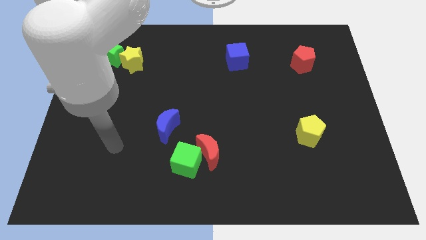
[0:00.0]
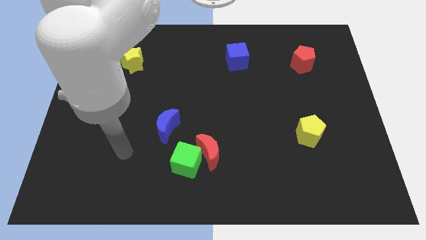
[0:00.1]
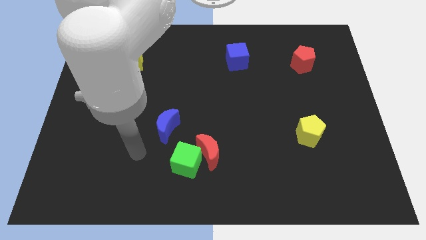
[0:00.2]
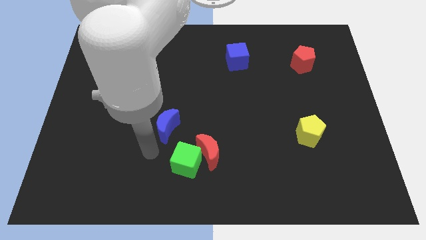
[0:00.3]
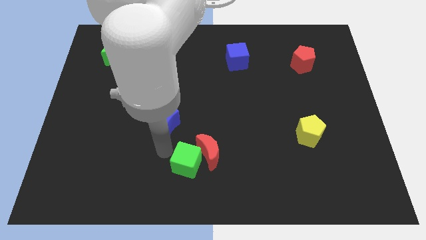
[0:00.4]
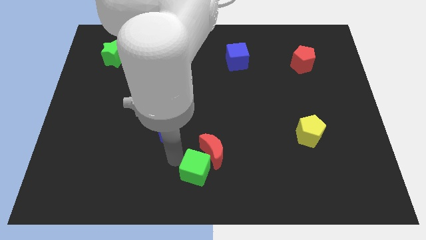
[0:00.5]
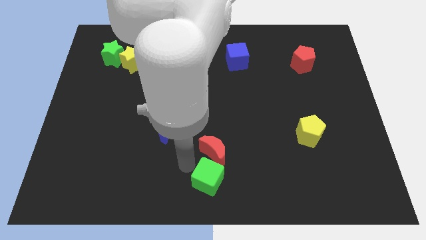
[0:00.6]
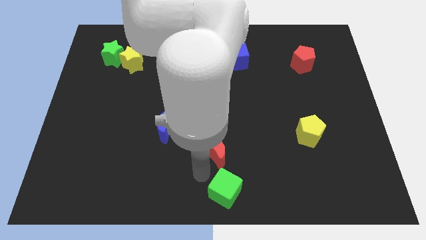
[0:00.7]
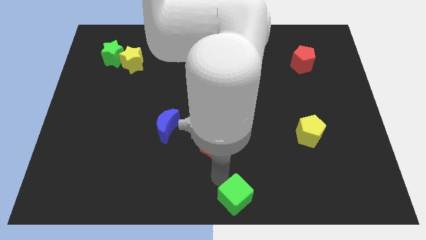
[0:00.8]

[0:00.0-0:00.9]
move the red moon away from the green cube

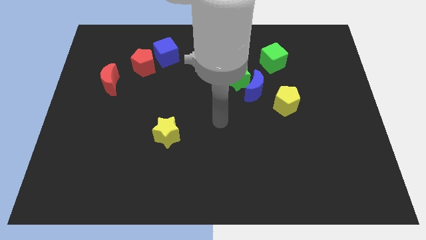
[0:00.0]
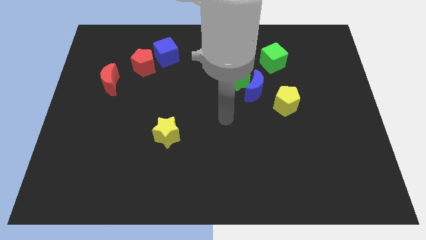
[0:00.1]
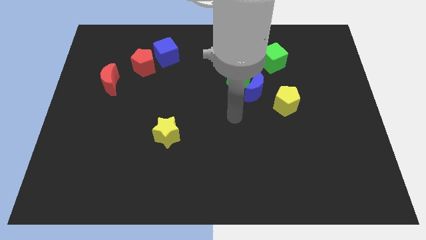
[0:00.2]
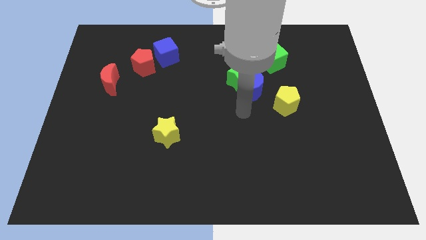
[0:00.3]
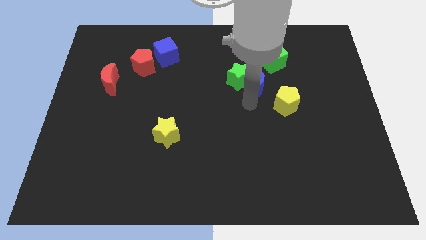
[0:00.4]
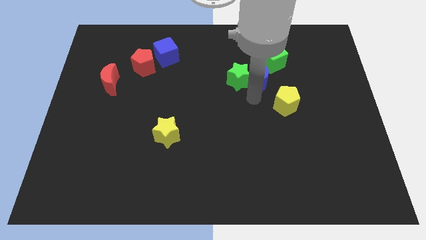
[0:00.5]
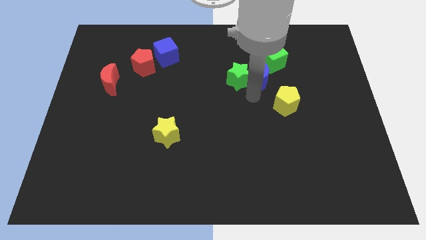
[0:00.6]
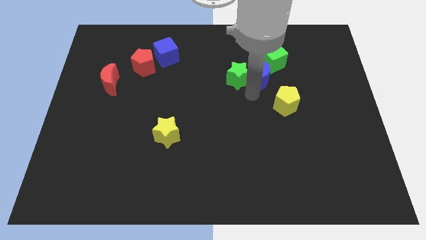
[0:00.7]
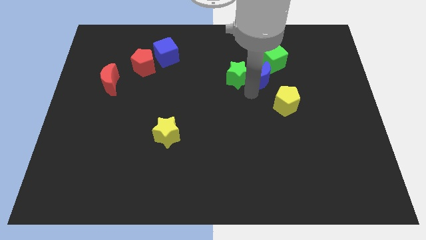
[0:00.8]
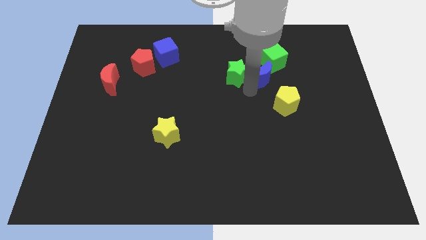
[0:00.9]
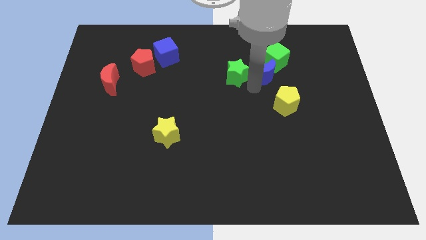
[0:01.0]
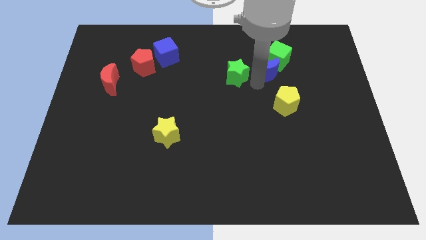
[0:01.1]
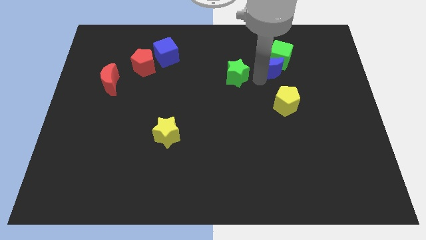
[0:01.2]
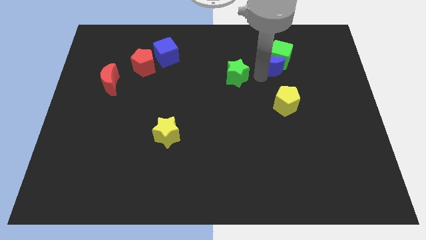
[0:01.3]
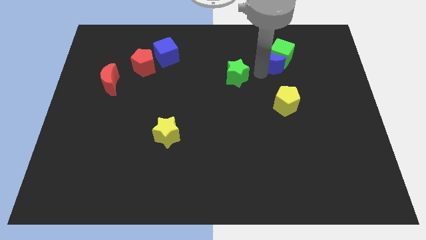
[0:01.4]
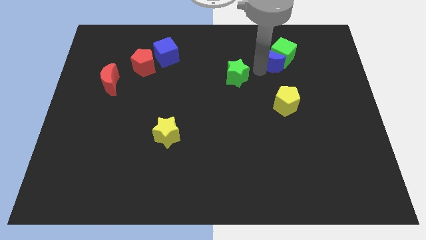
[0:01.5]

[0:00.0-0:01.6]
pull the green star apart from the blue moon

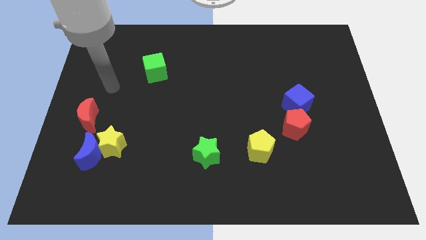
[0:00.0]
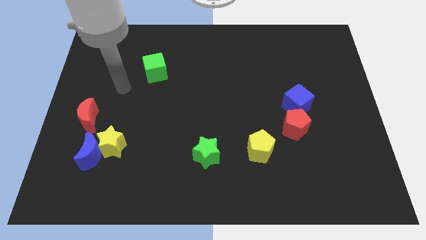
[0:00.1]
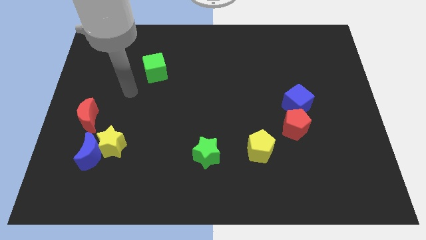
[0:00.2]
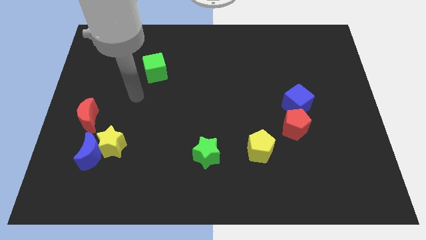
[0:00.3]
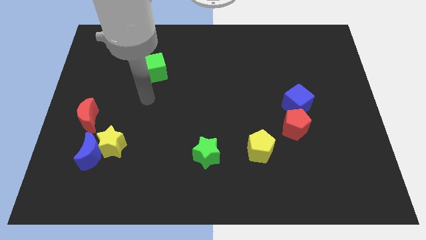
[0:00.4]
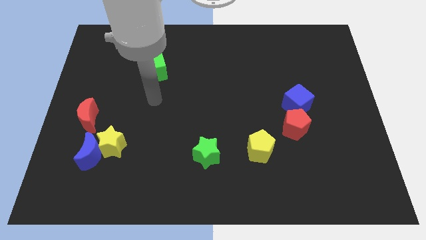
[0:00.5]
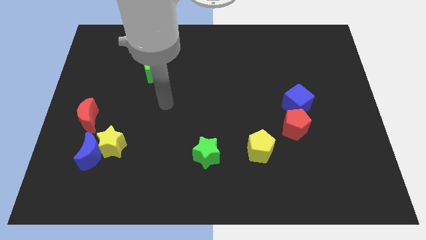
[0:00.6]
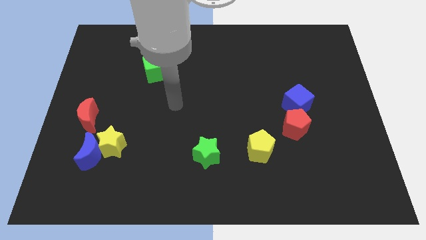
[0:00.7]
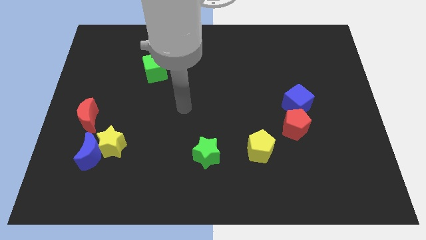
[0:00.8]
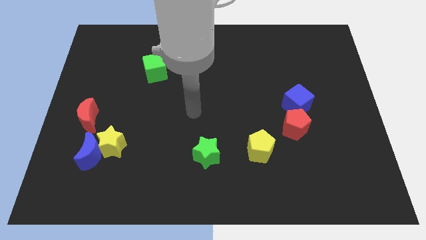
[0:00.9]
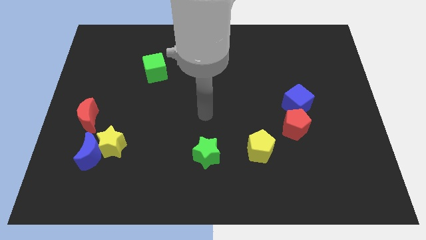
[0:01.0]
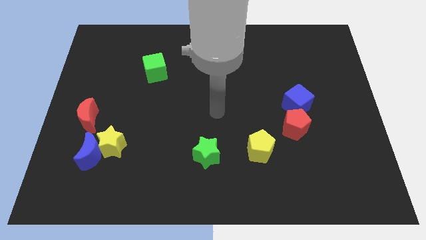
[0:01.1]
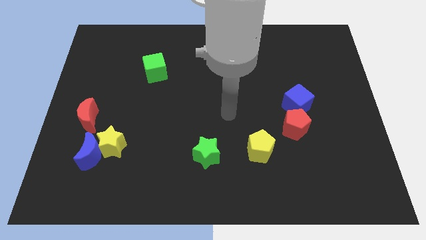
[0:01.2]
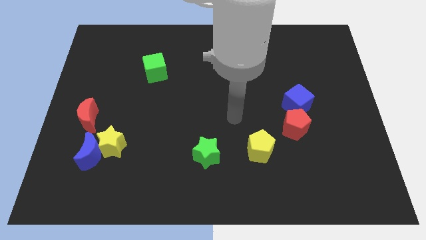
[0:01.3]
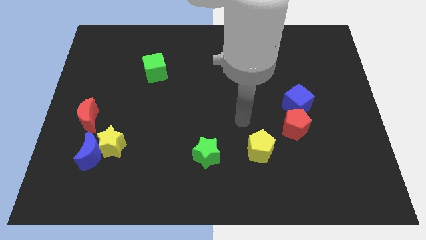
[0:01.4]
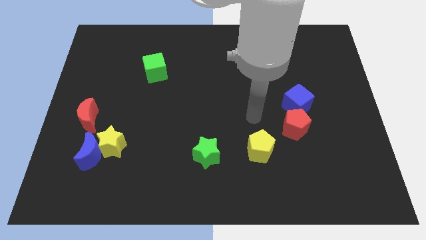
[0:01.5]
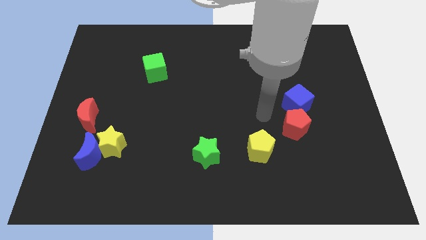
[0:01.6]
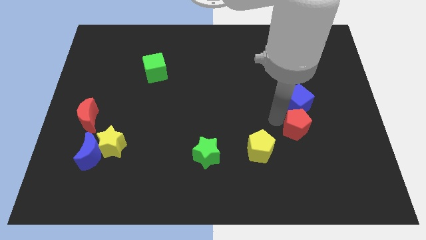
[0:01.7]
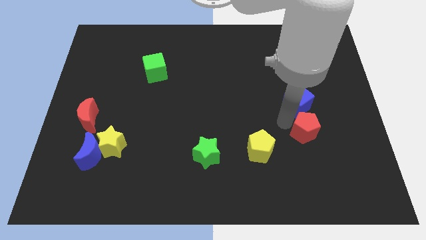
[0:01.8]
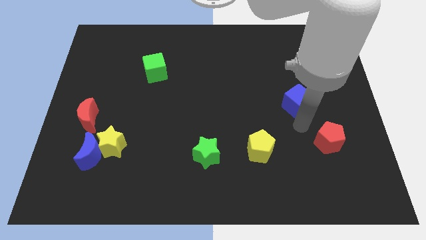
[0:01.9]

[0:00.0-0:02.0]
move the blue cube away from the red pentagon

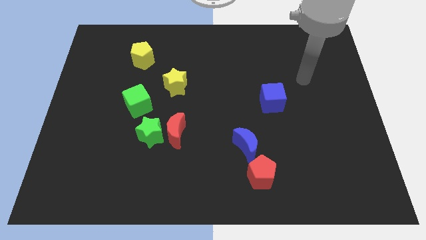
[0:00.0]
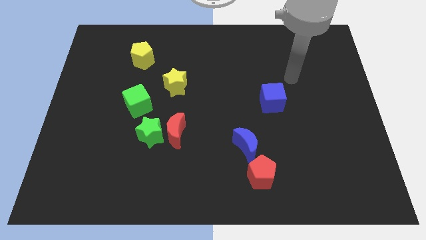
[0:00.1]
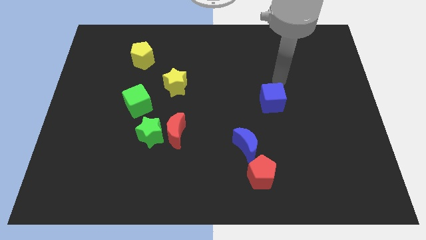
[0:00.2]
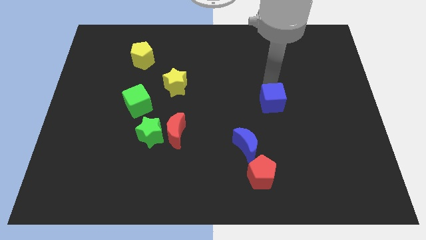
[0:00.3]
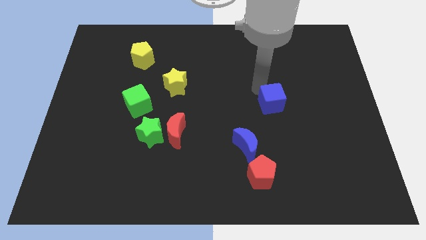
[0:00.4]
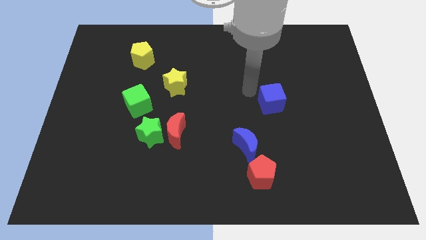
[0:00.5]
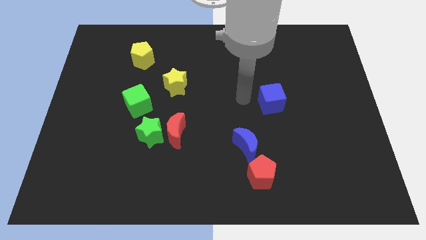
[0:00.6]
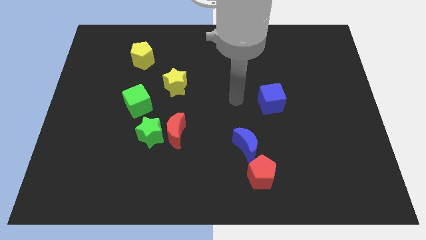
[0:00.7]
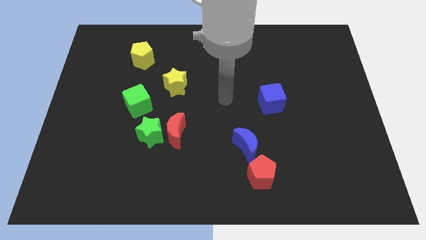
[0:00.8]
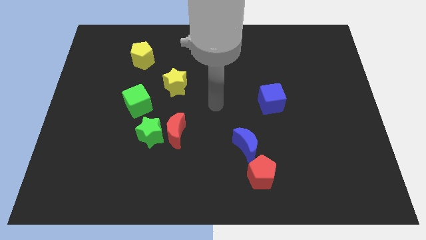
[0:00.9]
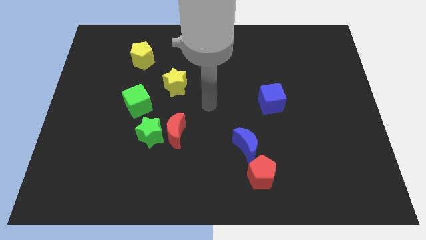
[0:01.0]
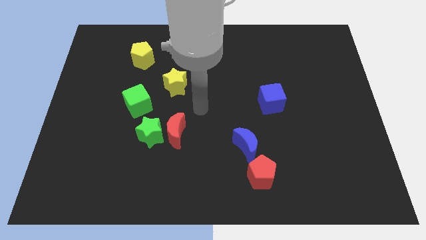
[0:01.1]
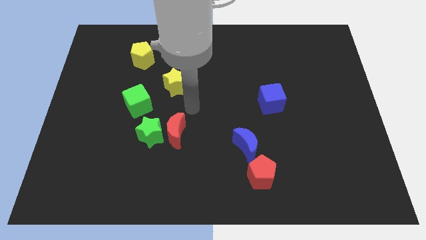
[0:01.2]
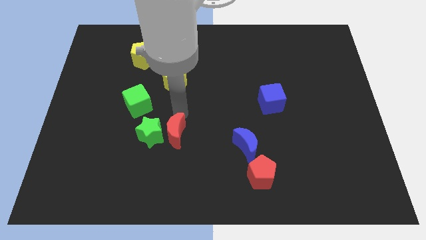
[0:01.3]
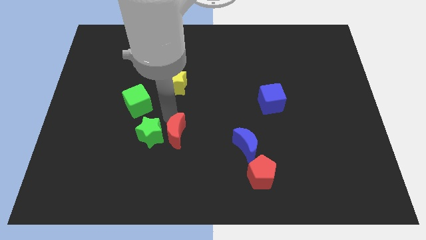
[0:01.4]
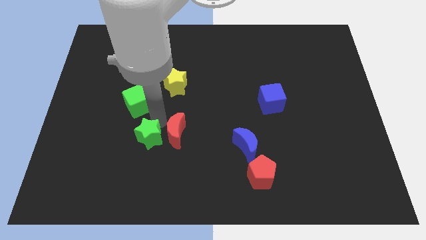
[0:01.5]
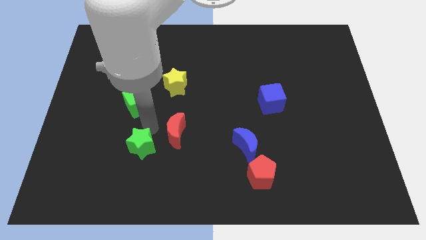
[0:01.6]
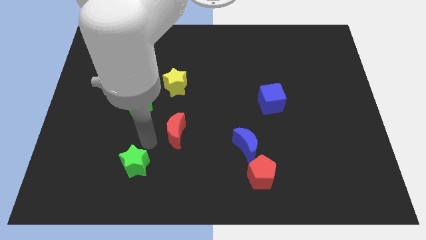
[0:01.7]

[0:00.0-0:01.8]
move the red moon away from the green star

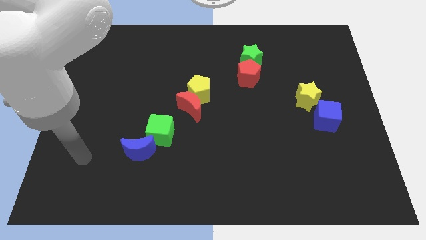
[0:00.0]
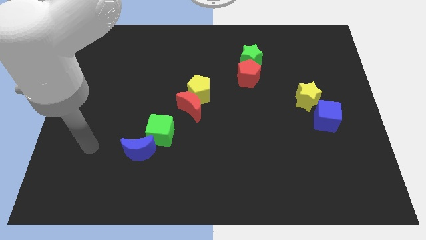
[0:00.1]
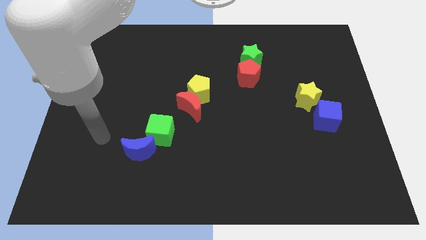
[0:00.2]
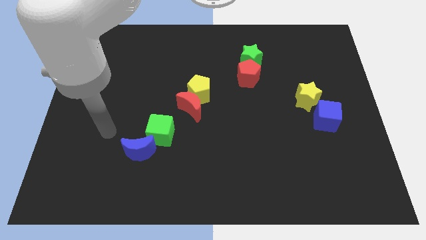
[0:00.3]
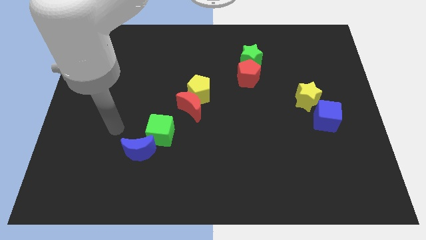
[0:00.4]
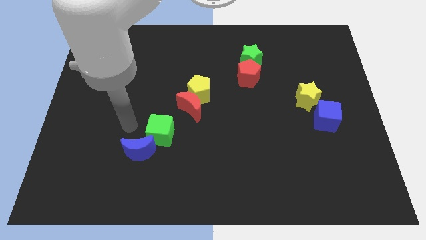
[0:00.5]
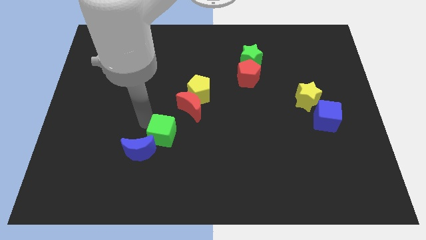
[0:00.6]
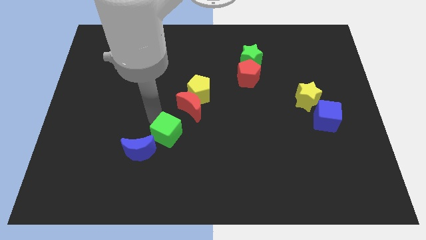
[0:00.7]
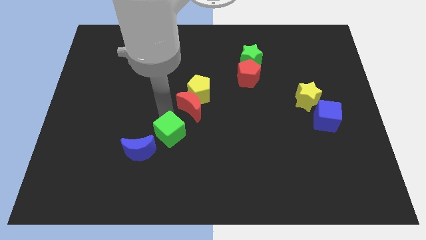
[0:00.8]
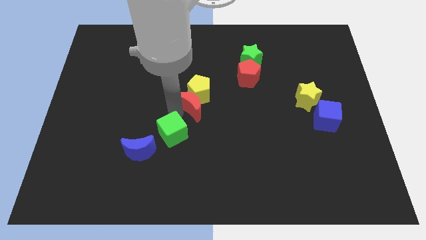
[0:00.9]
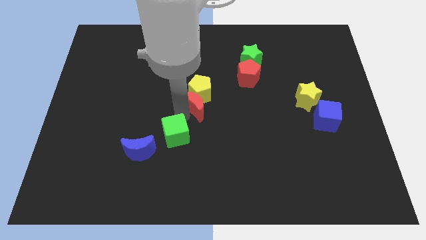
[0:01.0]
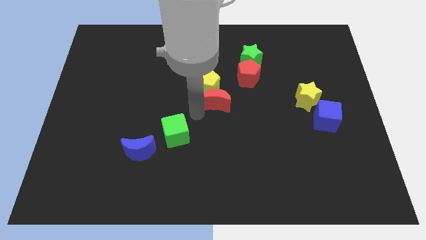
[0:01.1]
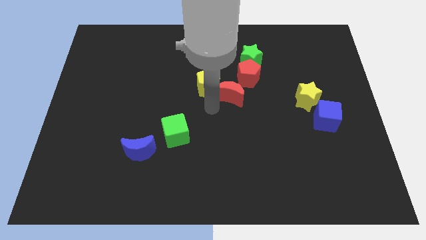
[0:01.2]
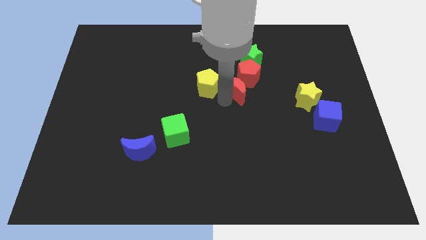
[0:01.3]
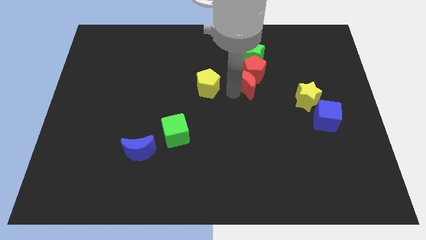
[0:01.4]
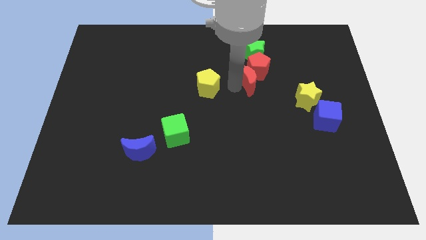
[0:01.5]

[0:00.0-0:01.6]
move the yellow pentagon away from the red moon

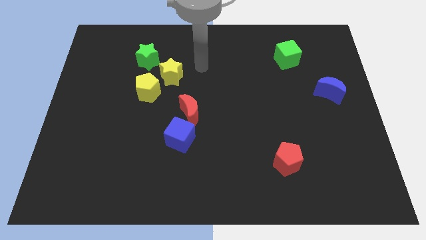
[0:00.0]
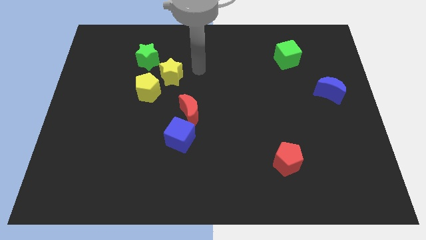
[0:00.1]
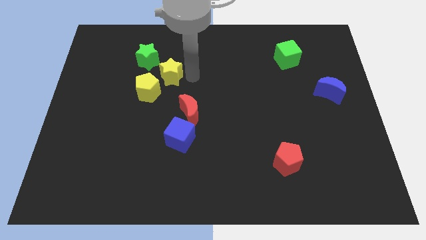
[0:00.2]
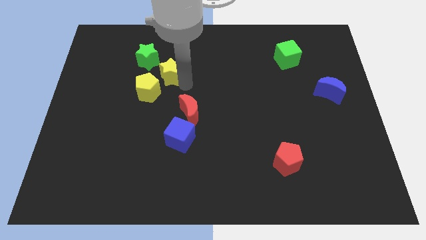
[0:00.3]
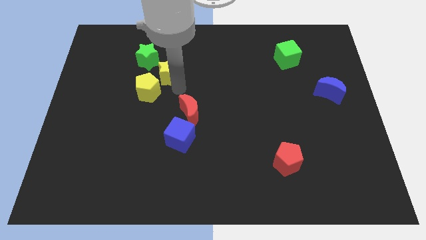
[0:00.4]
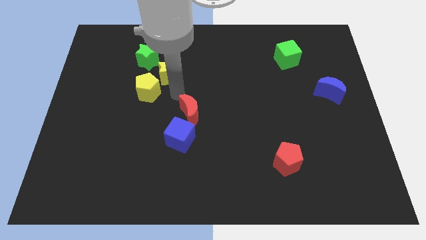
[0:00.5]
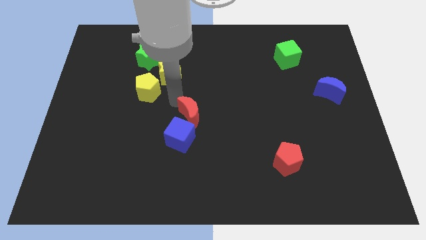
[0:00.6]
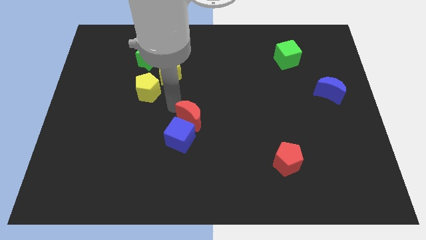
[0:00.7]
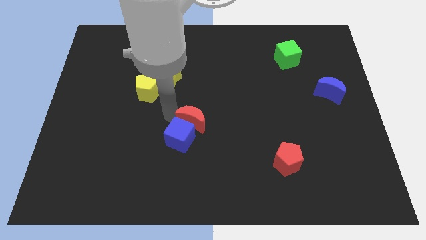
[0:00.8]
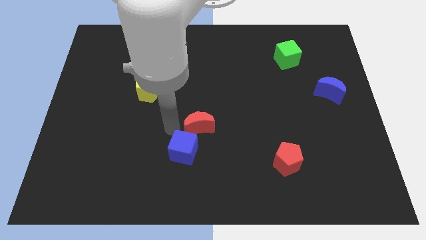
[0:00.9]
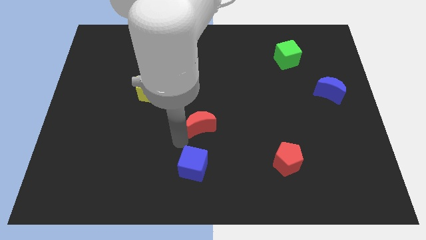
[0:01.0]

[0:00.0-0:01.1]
move the red moon away from the blue cube

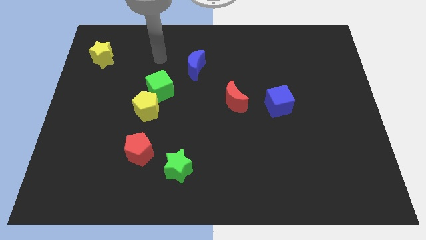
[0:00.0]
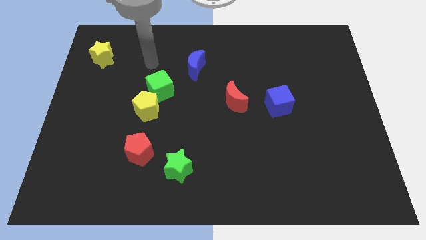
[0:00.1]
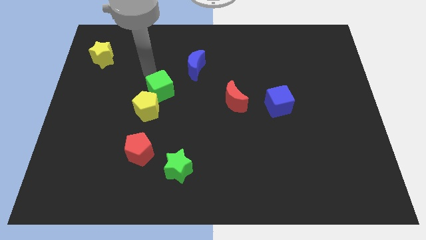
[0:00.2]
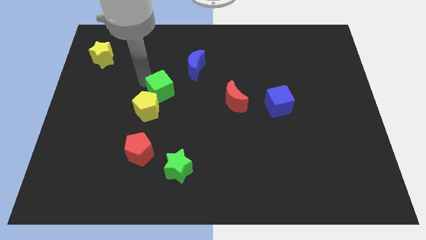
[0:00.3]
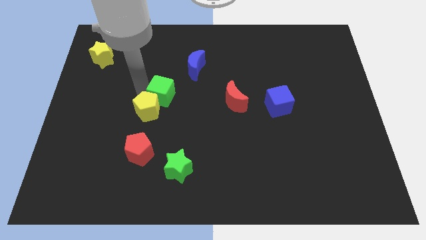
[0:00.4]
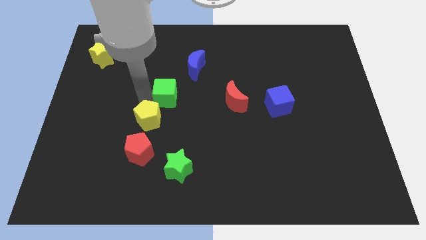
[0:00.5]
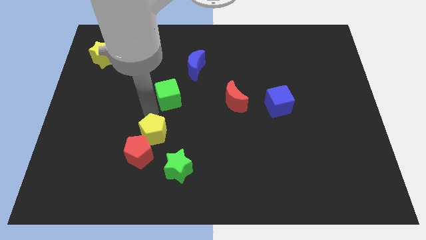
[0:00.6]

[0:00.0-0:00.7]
separate the green cube from the yellow pentagon
